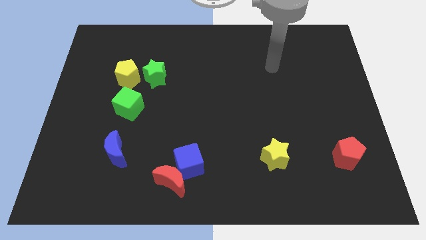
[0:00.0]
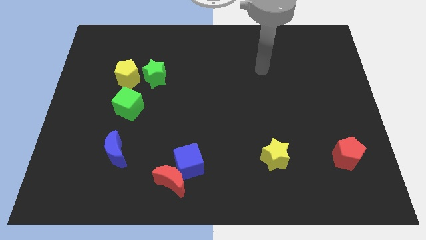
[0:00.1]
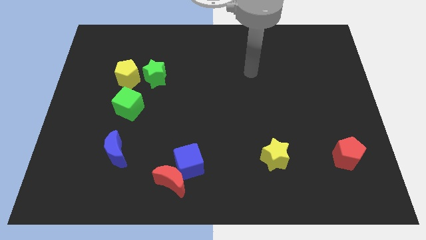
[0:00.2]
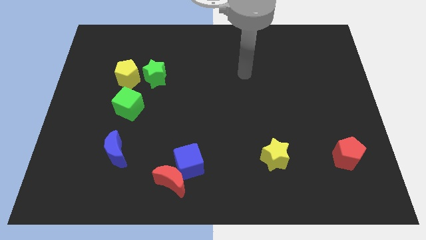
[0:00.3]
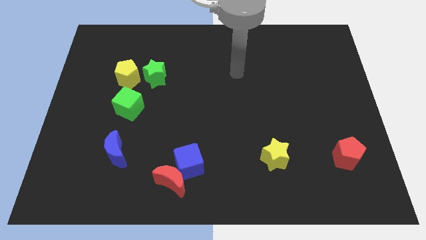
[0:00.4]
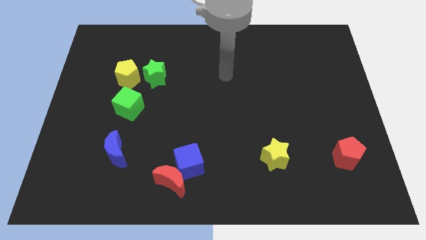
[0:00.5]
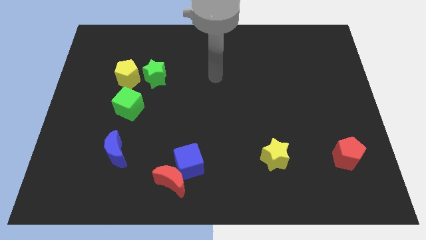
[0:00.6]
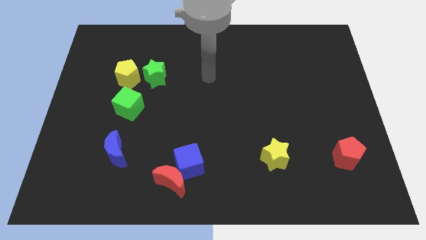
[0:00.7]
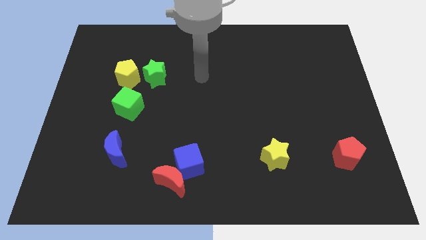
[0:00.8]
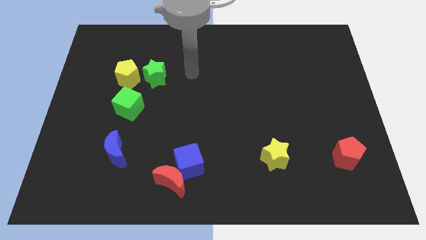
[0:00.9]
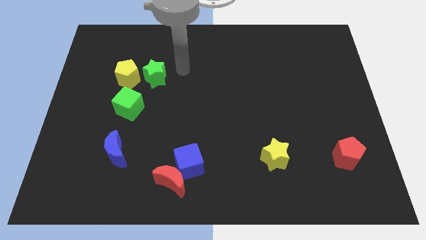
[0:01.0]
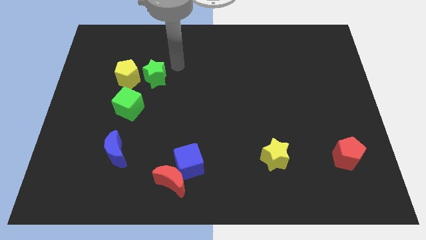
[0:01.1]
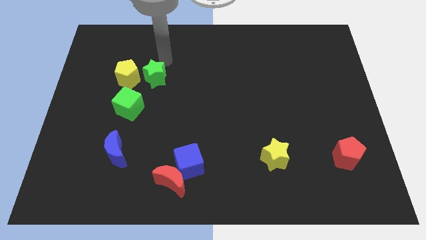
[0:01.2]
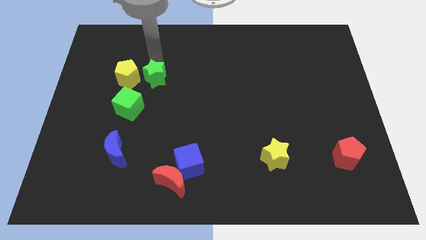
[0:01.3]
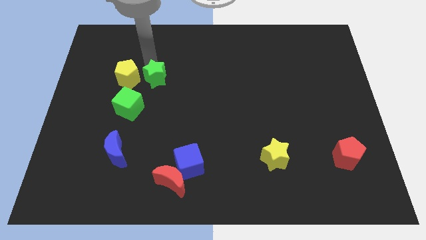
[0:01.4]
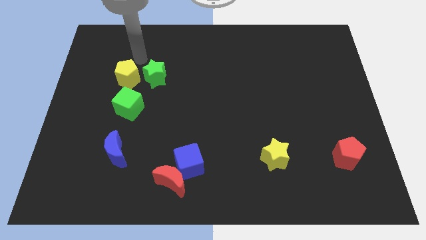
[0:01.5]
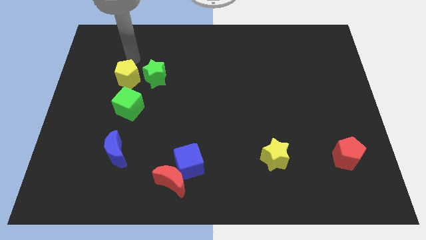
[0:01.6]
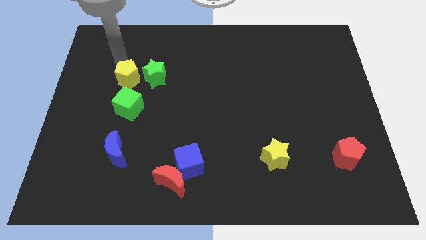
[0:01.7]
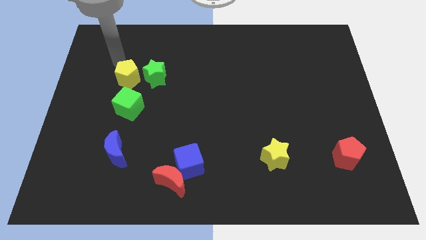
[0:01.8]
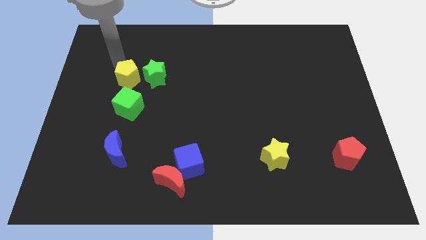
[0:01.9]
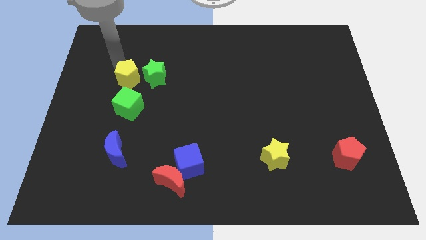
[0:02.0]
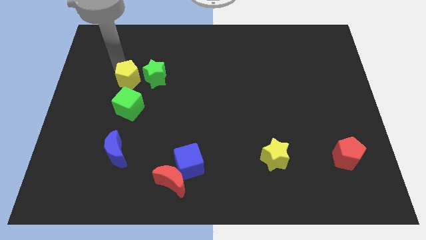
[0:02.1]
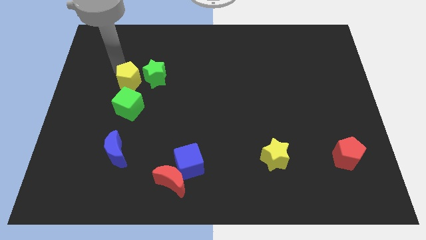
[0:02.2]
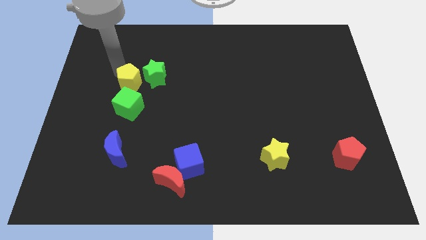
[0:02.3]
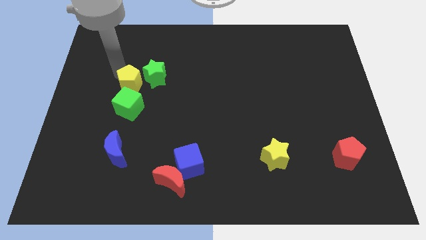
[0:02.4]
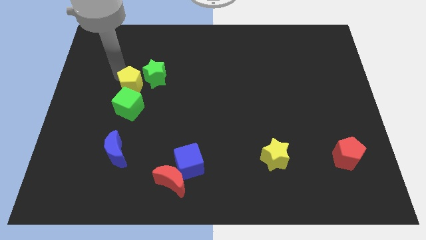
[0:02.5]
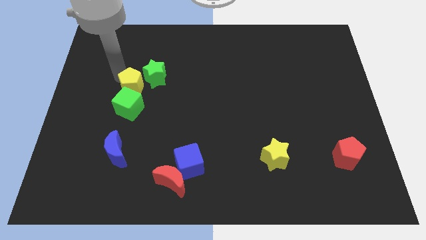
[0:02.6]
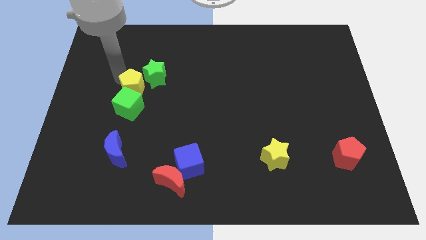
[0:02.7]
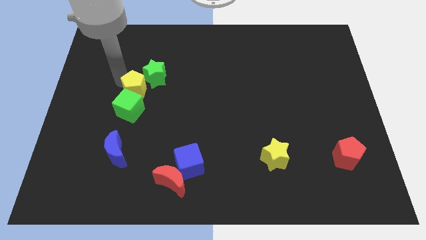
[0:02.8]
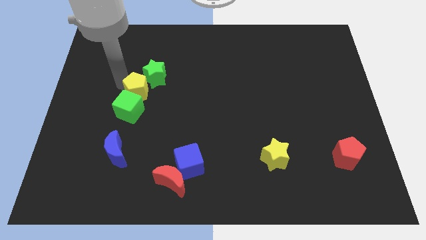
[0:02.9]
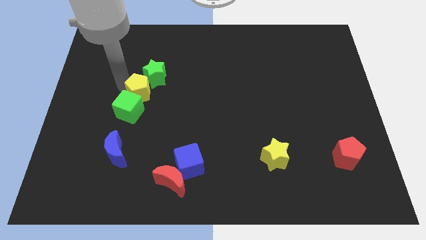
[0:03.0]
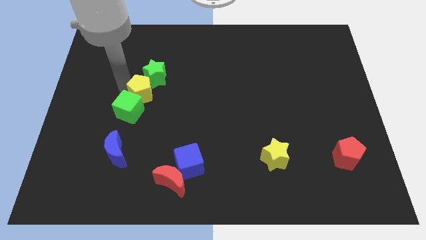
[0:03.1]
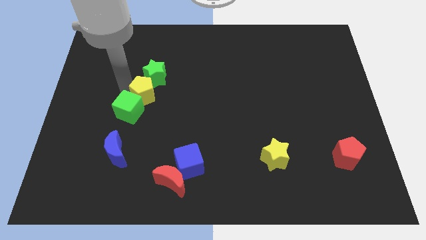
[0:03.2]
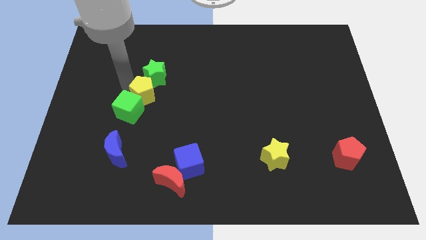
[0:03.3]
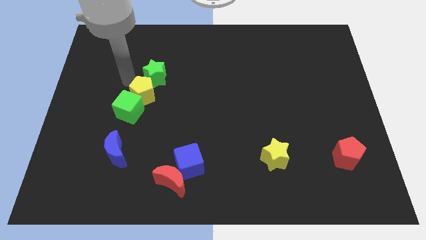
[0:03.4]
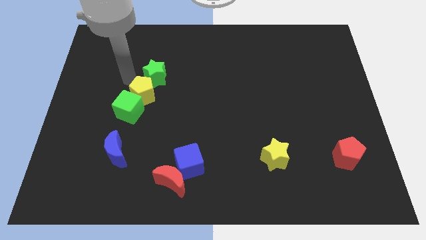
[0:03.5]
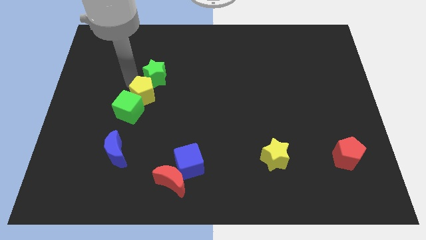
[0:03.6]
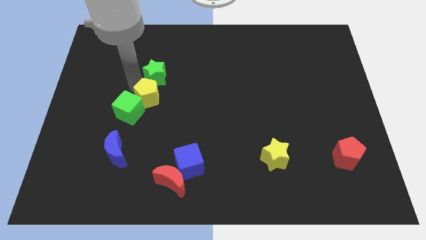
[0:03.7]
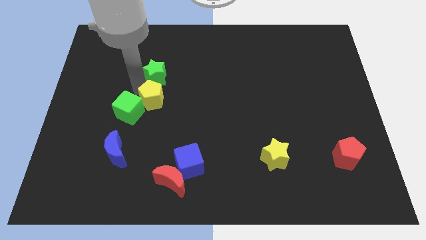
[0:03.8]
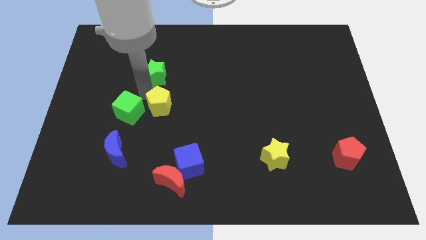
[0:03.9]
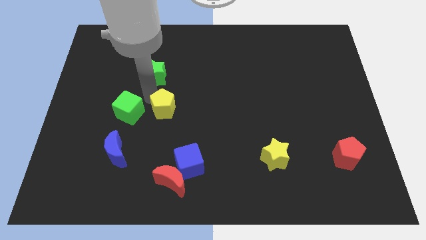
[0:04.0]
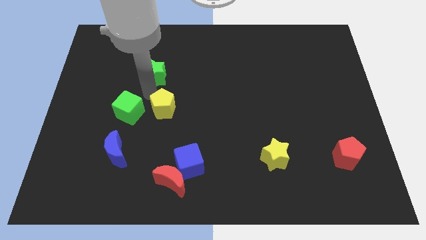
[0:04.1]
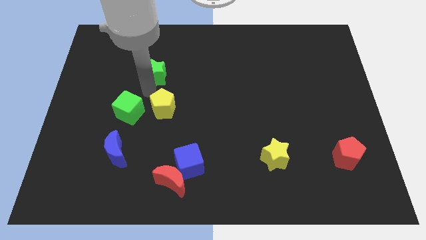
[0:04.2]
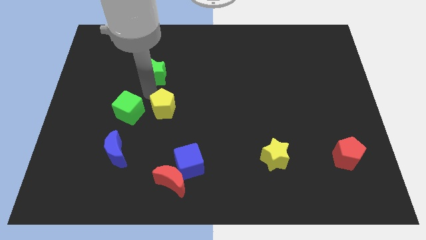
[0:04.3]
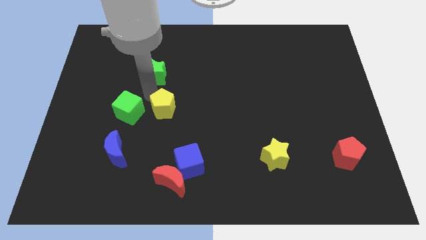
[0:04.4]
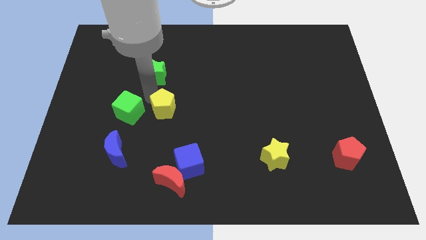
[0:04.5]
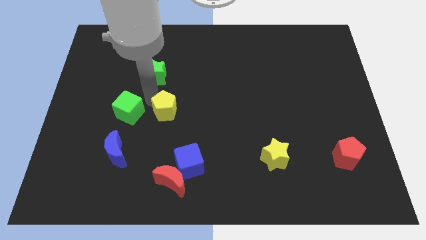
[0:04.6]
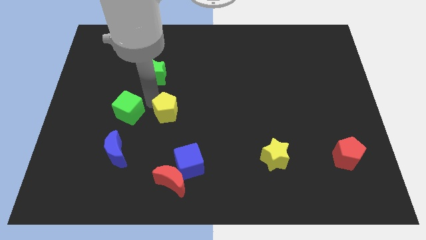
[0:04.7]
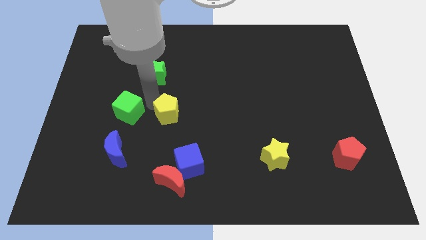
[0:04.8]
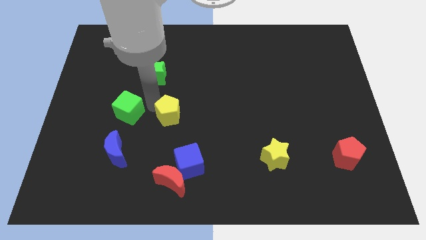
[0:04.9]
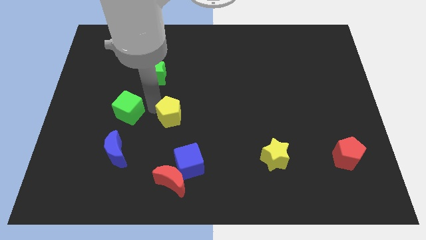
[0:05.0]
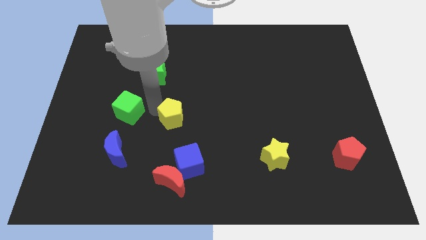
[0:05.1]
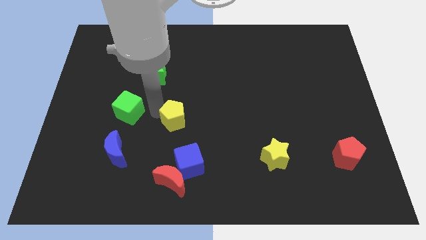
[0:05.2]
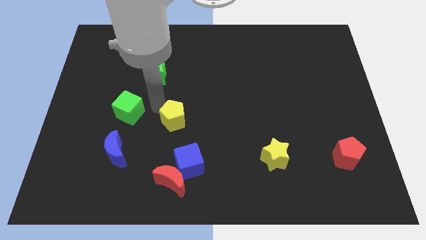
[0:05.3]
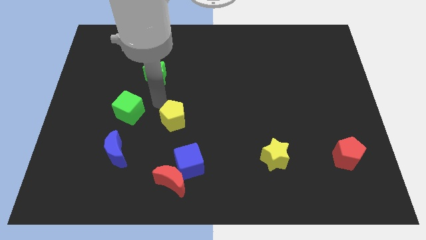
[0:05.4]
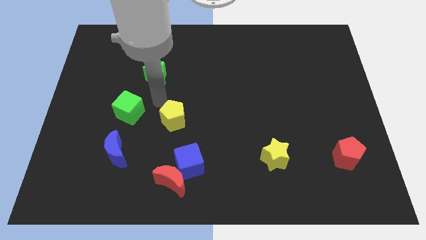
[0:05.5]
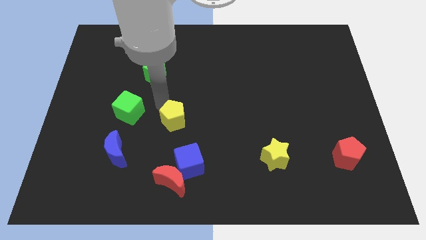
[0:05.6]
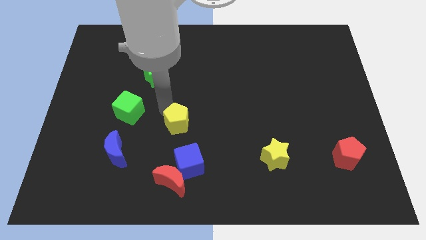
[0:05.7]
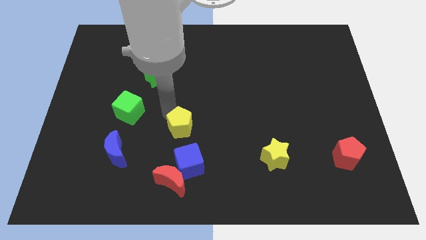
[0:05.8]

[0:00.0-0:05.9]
move the yellow pentagon diagonally downwards and right

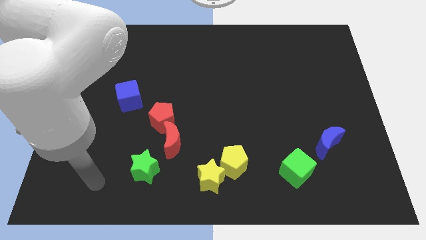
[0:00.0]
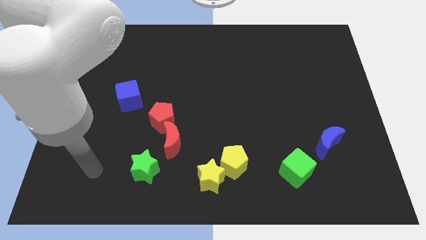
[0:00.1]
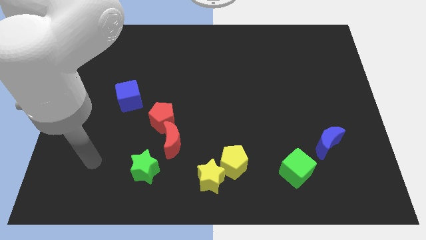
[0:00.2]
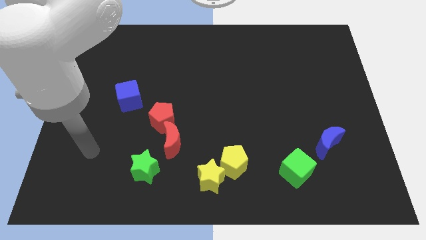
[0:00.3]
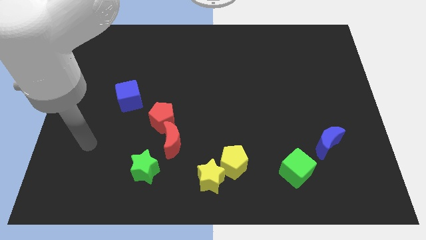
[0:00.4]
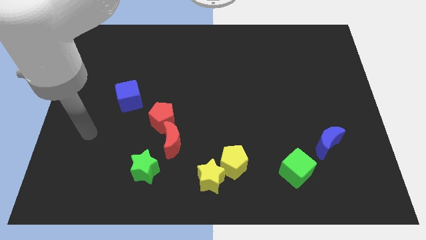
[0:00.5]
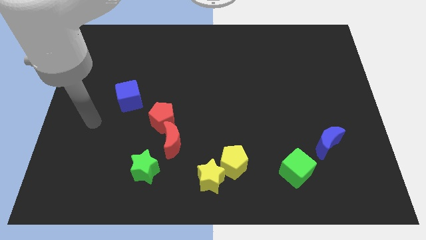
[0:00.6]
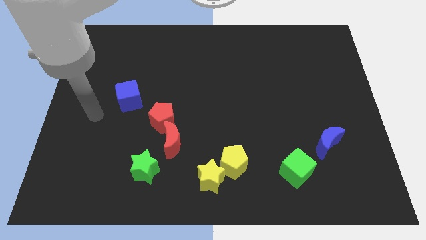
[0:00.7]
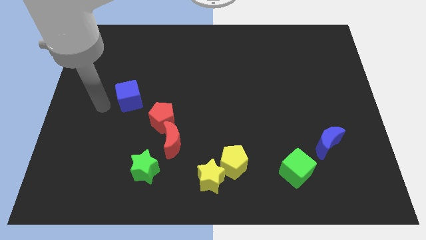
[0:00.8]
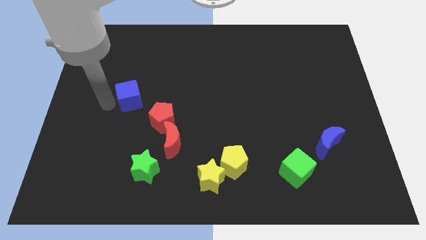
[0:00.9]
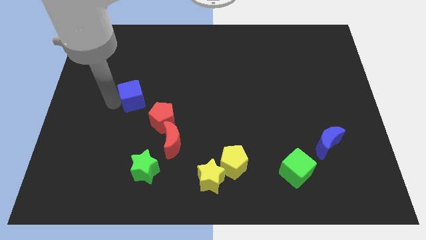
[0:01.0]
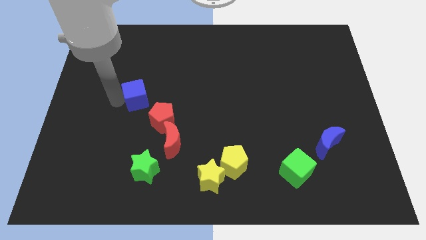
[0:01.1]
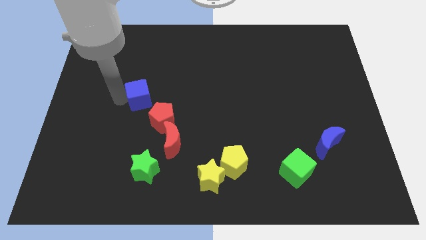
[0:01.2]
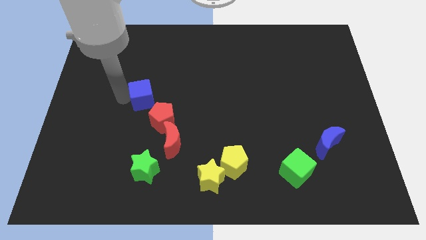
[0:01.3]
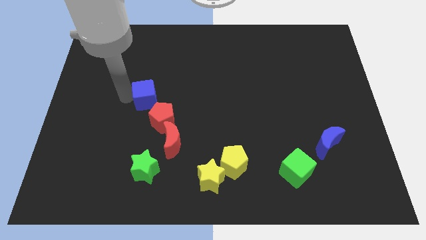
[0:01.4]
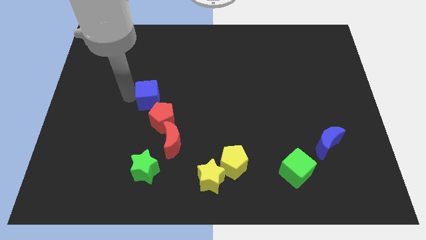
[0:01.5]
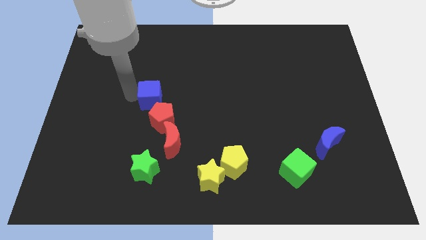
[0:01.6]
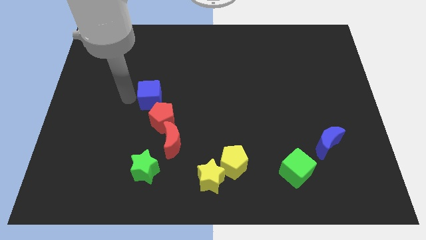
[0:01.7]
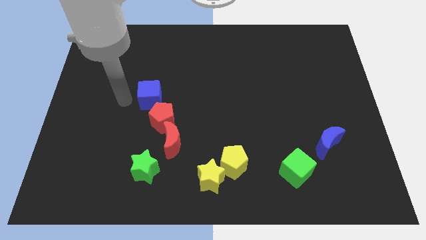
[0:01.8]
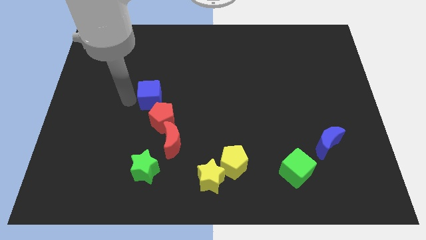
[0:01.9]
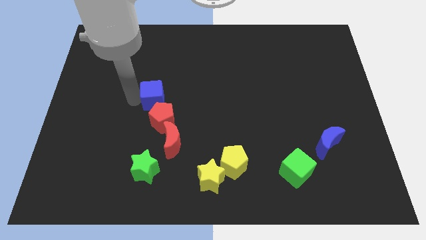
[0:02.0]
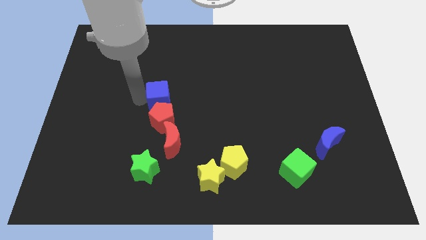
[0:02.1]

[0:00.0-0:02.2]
move the blue cube right somewhat
